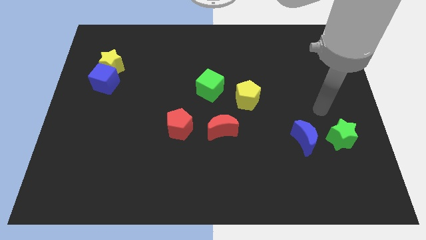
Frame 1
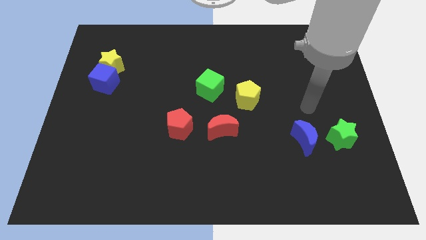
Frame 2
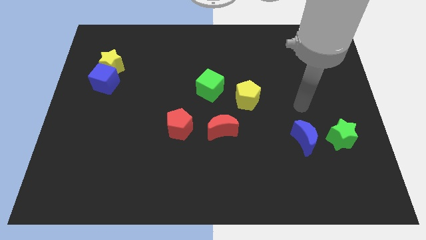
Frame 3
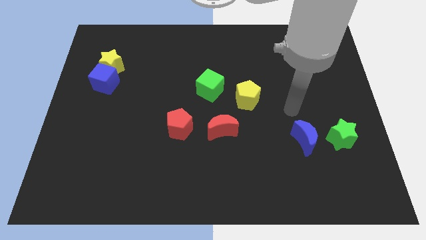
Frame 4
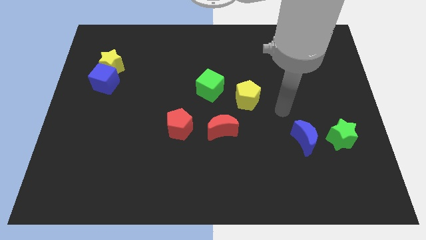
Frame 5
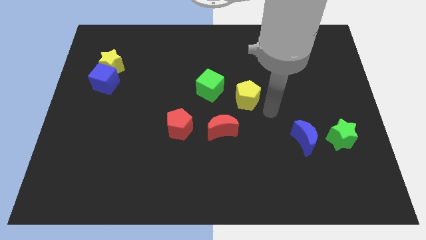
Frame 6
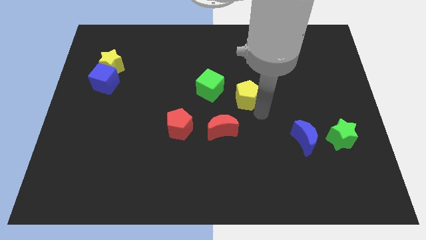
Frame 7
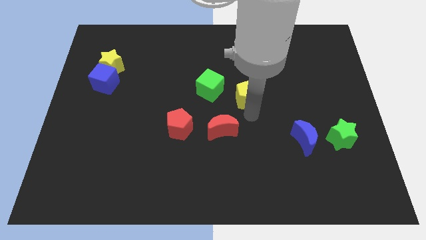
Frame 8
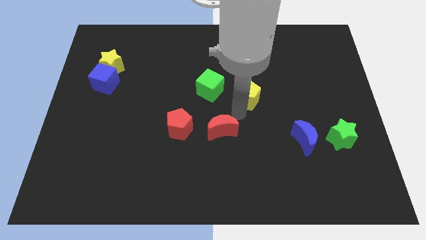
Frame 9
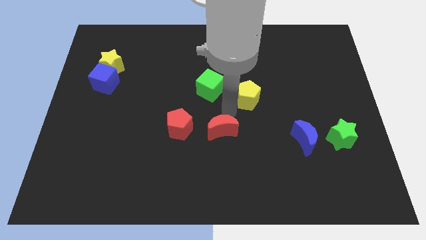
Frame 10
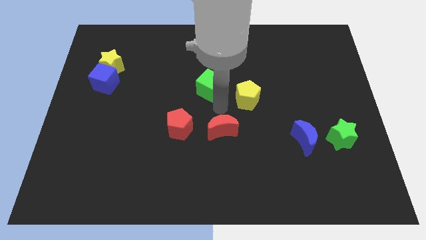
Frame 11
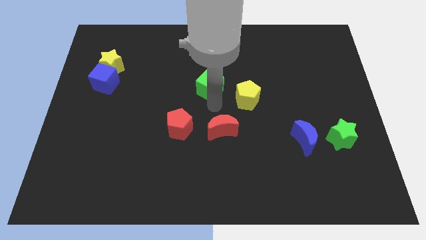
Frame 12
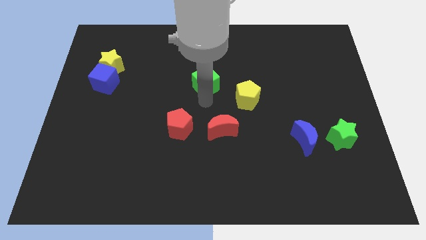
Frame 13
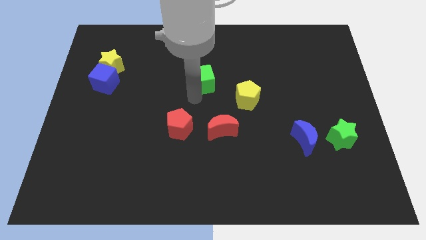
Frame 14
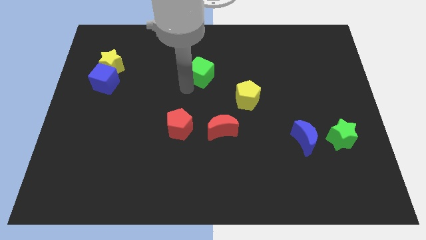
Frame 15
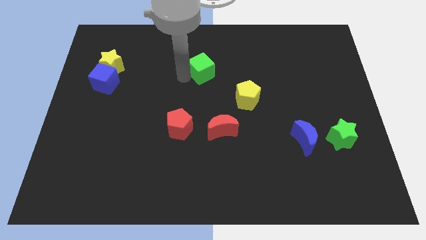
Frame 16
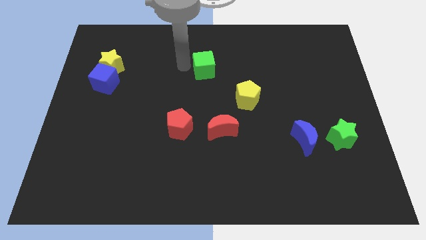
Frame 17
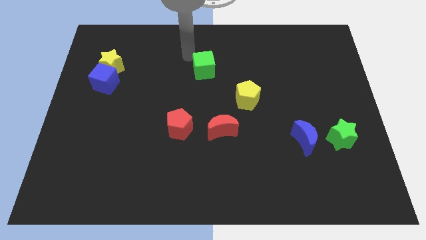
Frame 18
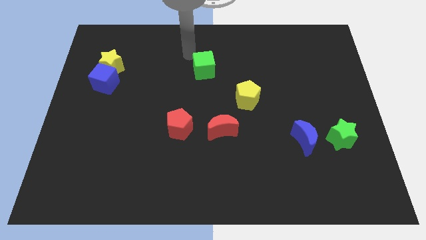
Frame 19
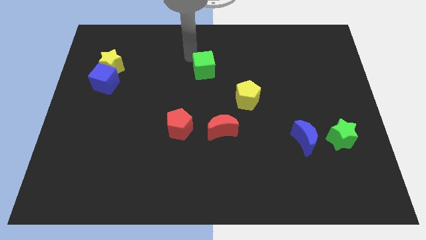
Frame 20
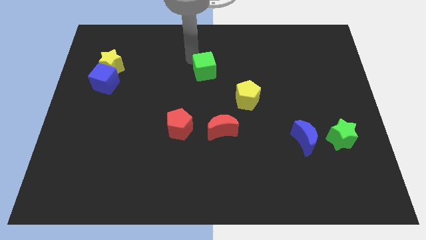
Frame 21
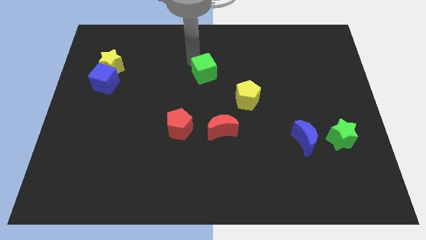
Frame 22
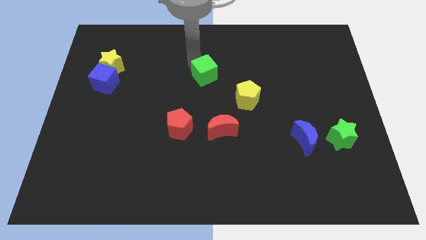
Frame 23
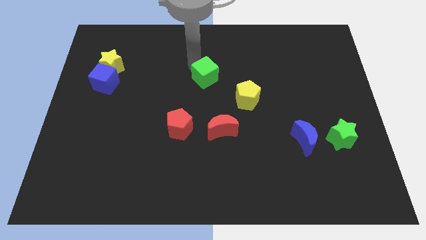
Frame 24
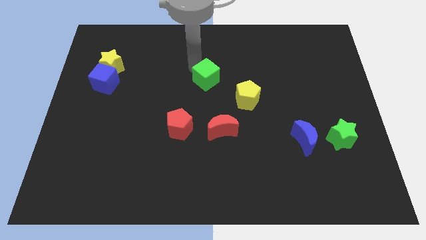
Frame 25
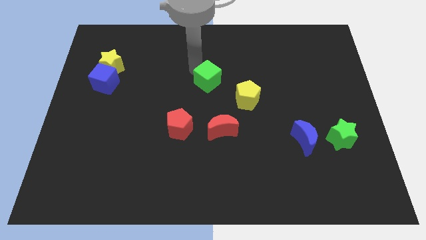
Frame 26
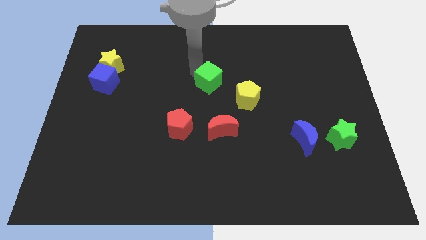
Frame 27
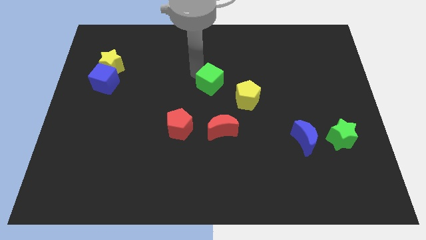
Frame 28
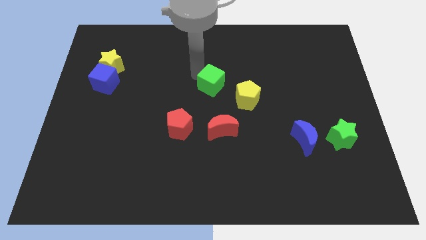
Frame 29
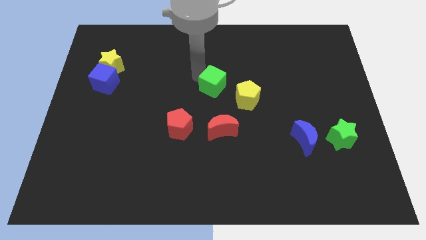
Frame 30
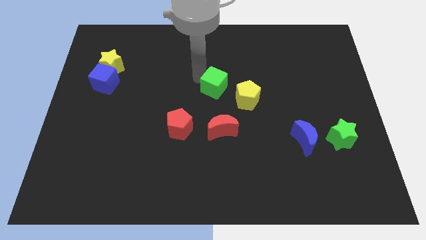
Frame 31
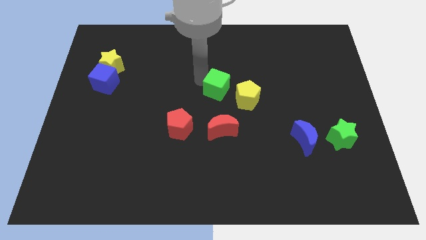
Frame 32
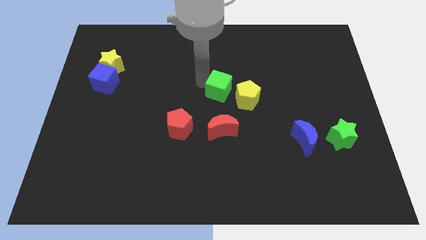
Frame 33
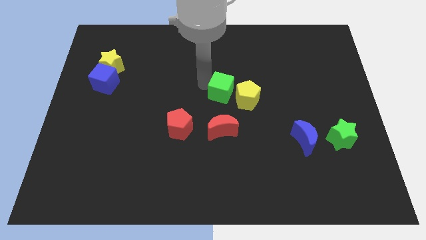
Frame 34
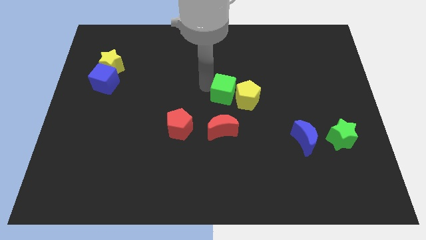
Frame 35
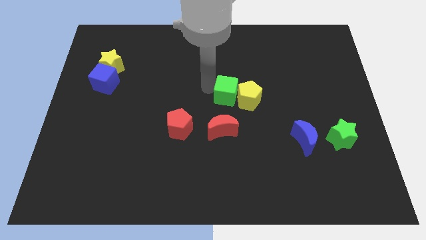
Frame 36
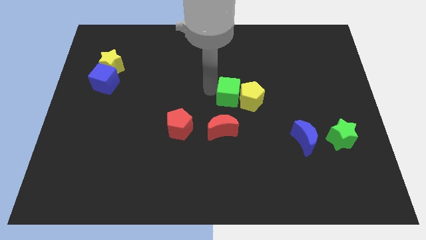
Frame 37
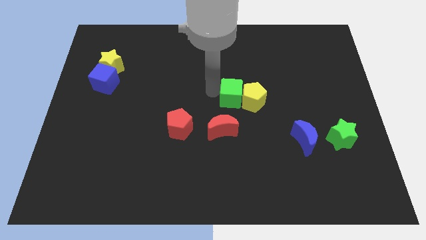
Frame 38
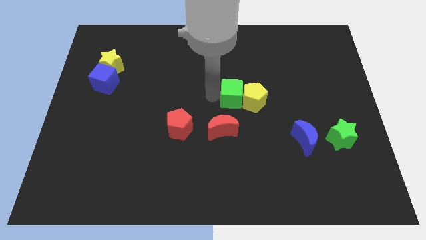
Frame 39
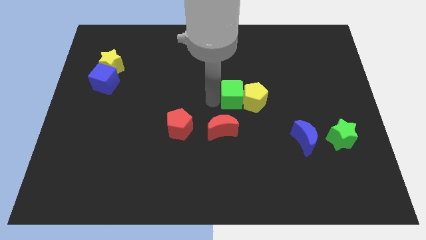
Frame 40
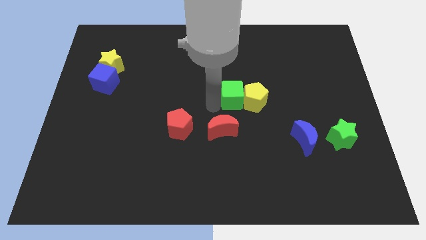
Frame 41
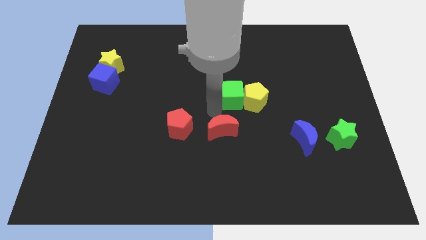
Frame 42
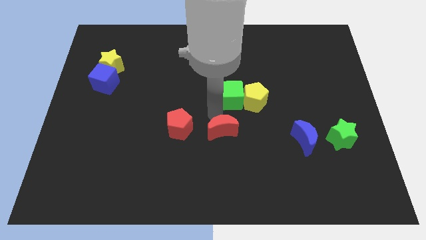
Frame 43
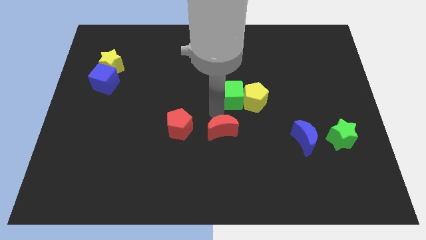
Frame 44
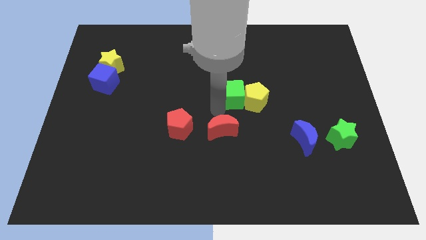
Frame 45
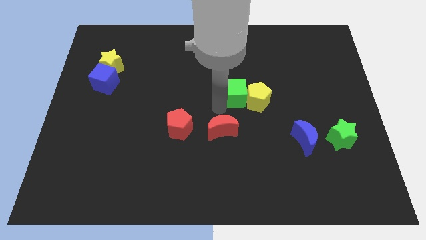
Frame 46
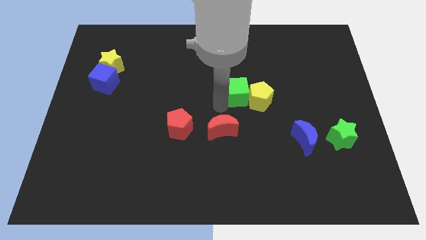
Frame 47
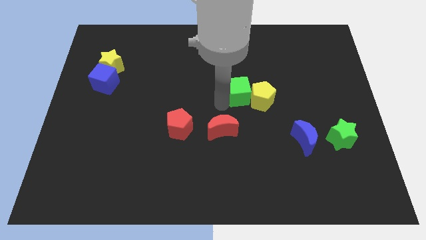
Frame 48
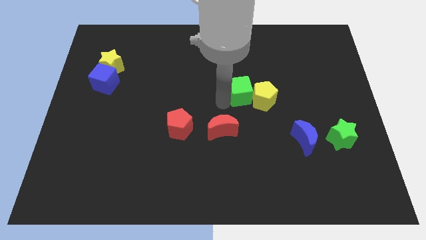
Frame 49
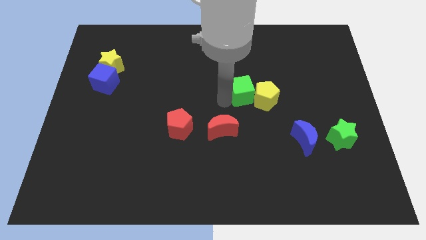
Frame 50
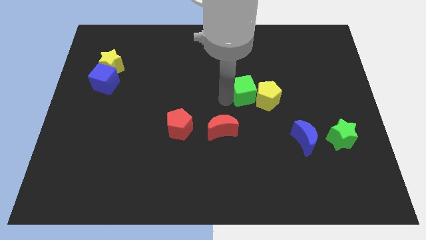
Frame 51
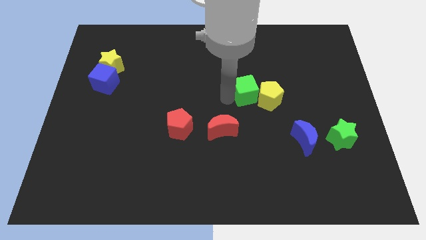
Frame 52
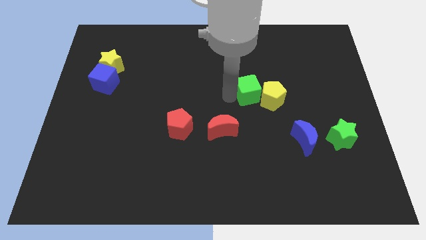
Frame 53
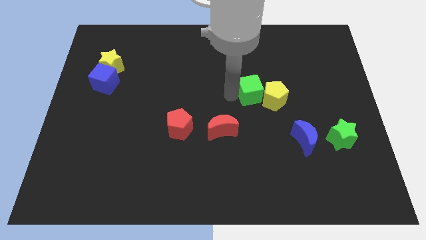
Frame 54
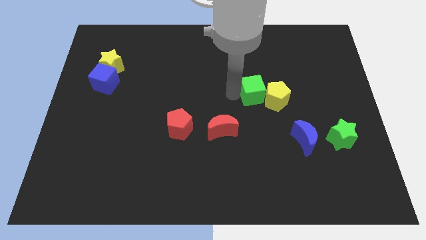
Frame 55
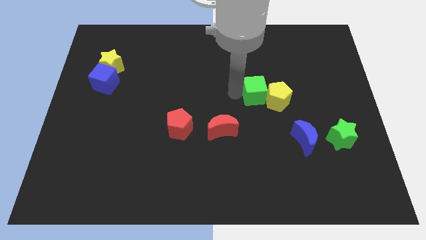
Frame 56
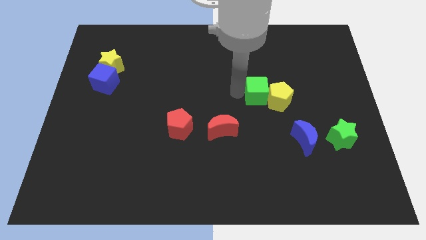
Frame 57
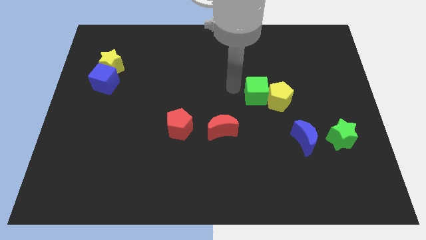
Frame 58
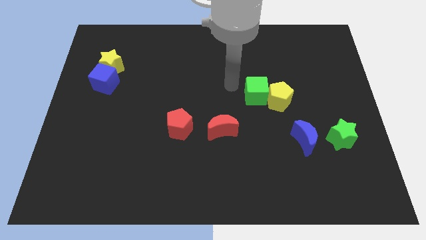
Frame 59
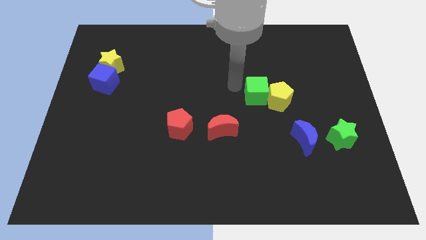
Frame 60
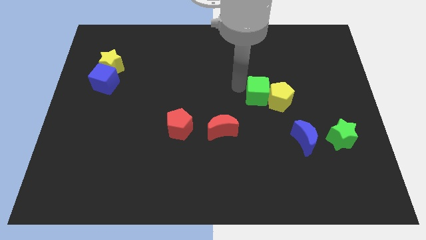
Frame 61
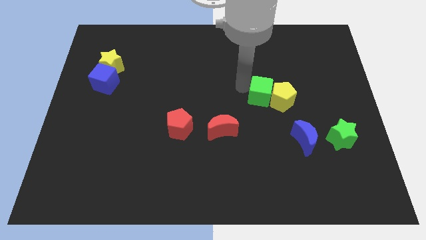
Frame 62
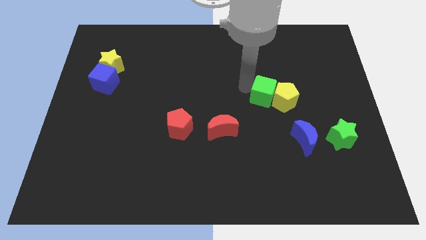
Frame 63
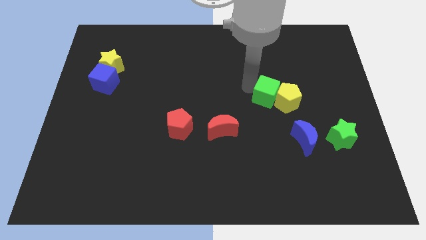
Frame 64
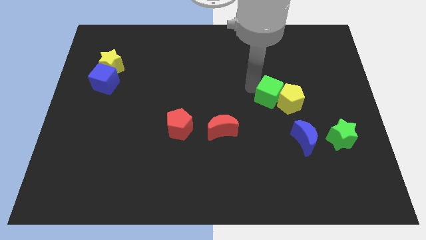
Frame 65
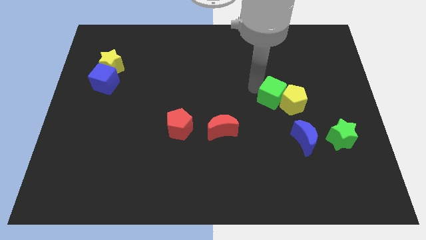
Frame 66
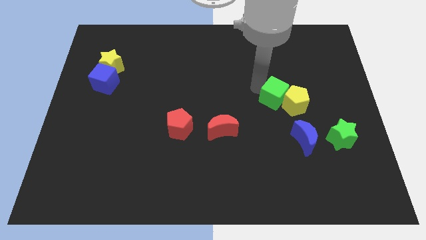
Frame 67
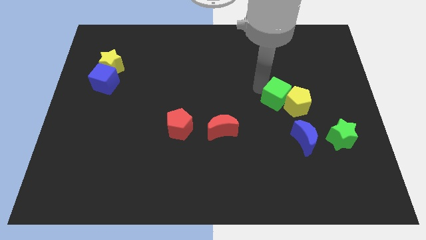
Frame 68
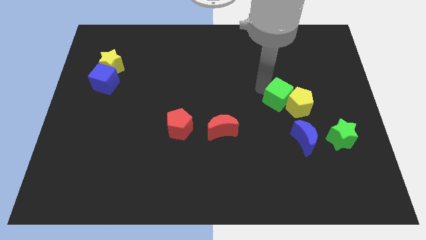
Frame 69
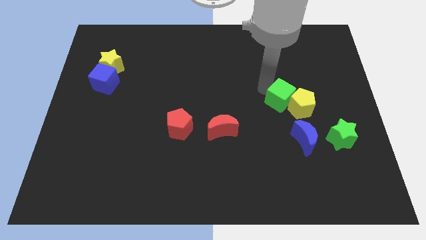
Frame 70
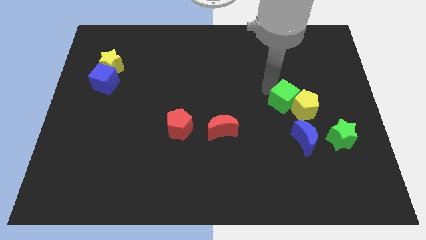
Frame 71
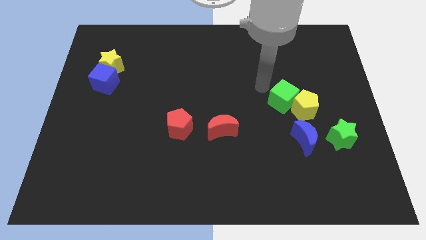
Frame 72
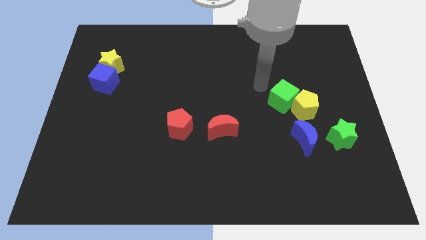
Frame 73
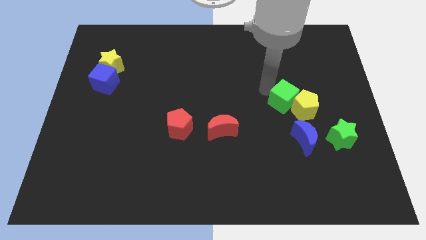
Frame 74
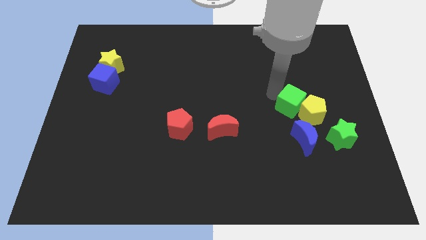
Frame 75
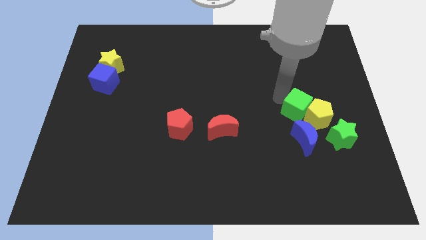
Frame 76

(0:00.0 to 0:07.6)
push the green cube to the top left side of the green star

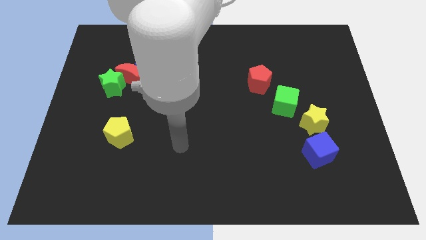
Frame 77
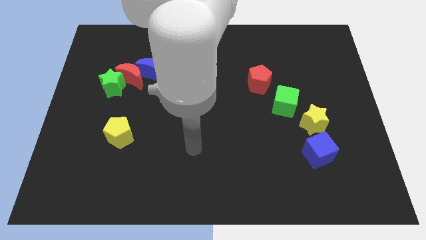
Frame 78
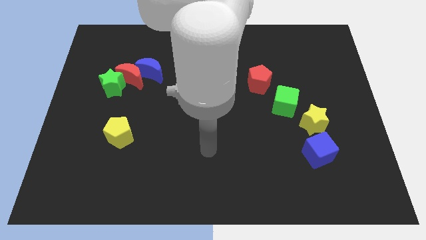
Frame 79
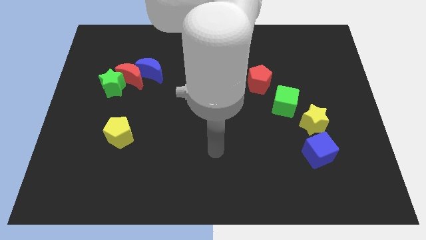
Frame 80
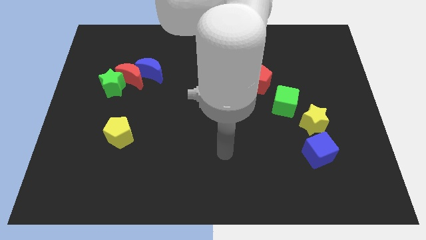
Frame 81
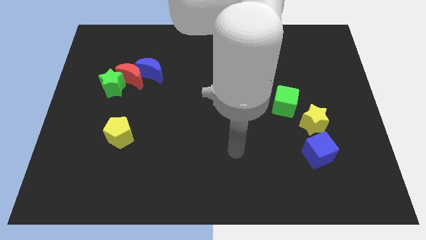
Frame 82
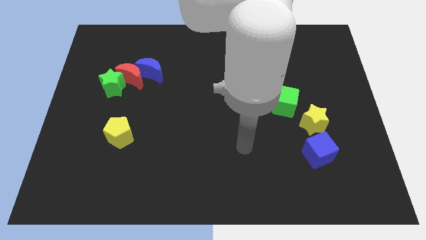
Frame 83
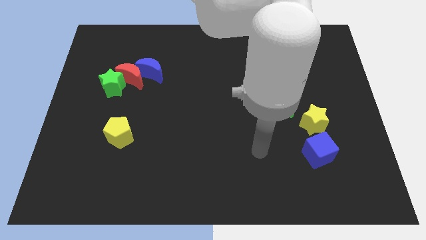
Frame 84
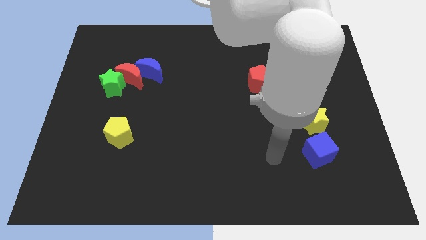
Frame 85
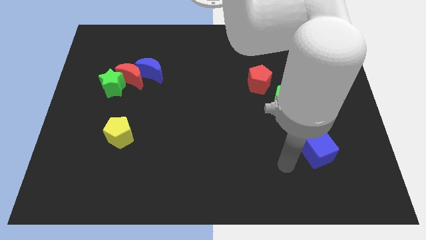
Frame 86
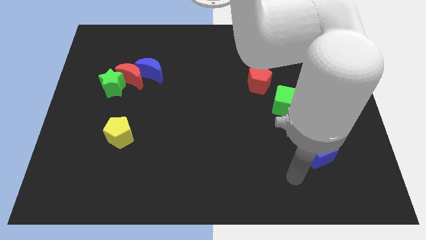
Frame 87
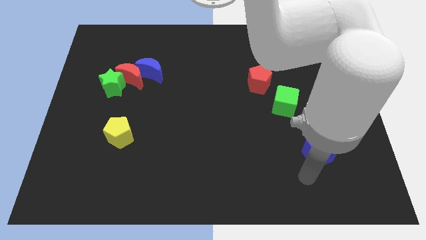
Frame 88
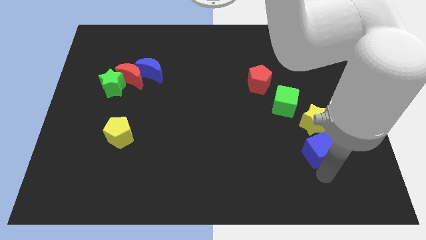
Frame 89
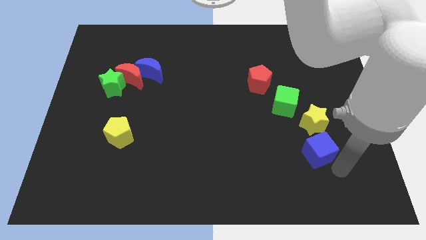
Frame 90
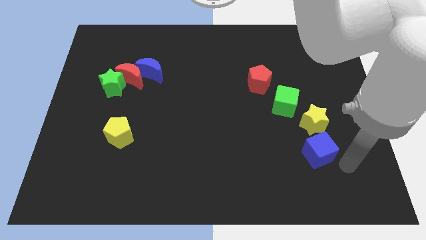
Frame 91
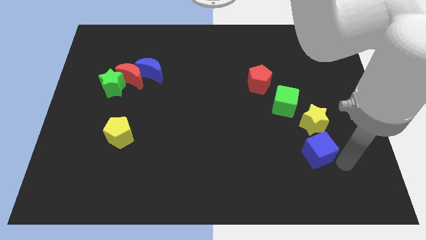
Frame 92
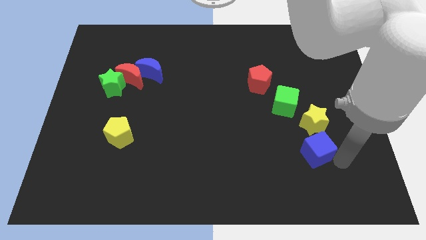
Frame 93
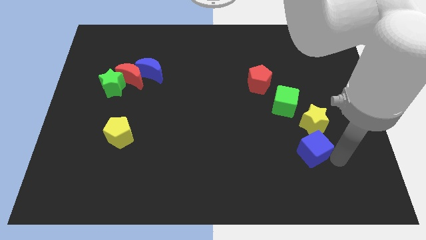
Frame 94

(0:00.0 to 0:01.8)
put the blue cube to the bottom side of the green cube
